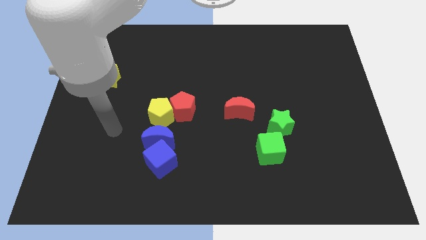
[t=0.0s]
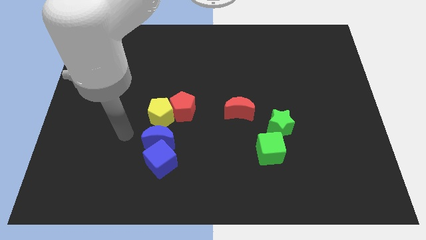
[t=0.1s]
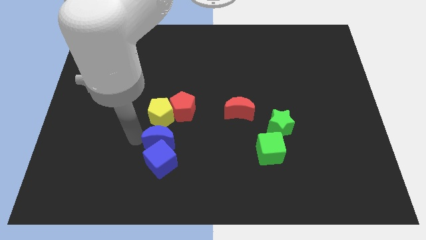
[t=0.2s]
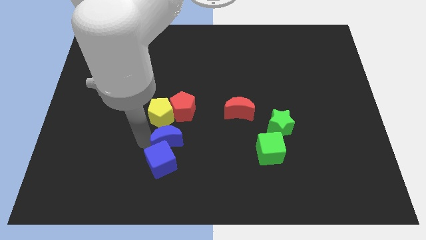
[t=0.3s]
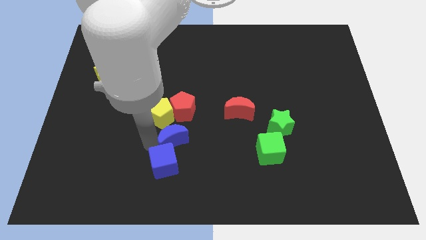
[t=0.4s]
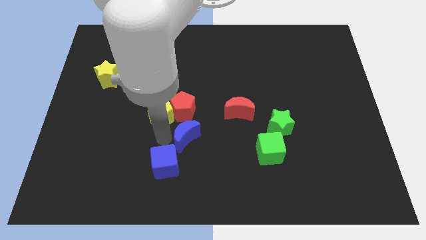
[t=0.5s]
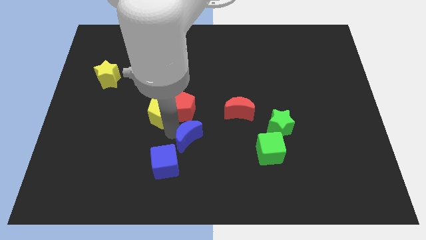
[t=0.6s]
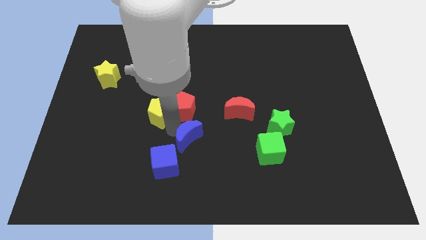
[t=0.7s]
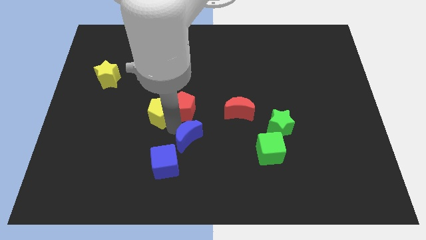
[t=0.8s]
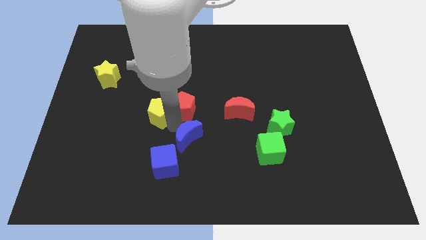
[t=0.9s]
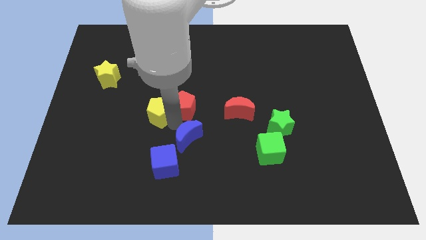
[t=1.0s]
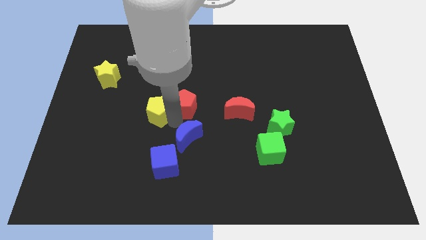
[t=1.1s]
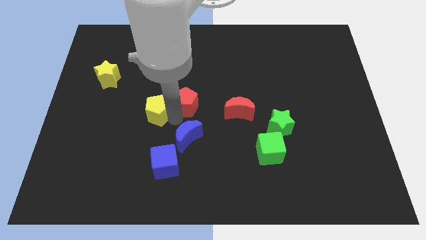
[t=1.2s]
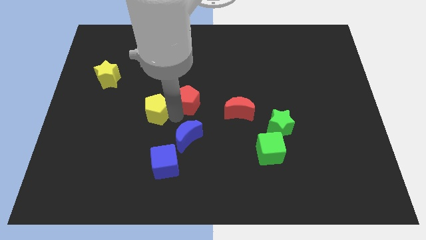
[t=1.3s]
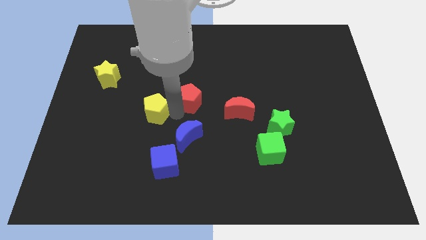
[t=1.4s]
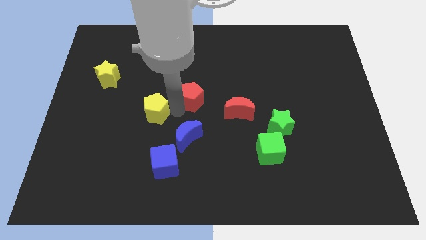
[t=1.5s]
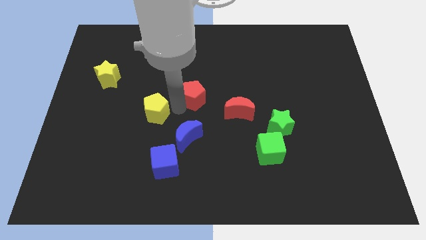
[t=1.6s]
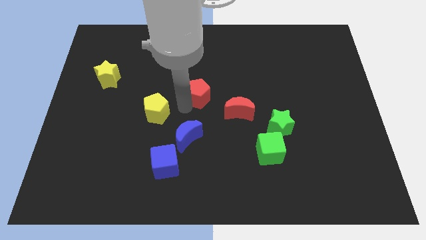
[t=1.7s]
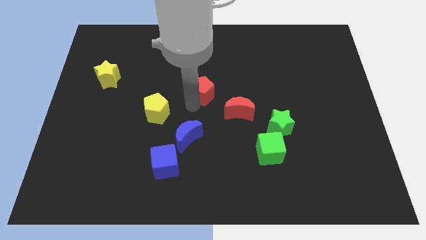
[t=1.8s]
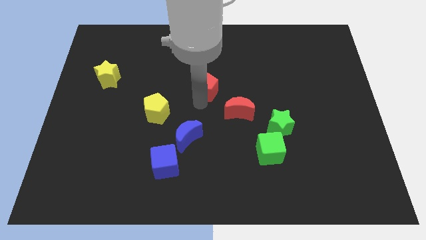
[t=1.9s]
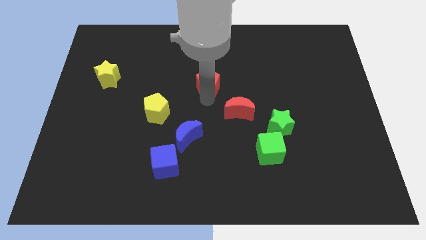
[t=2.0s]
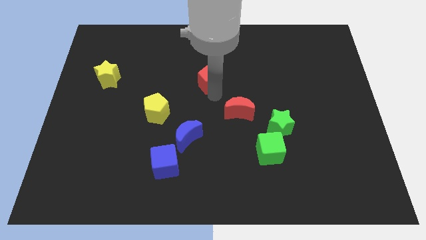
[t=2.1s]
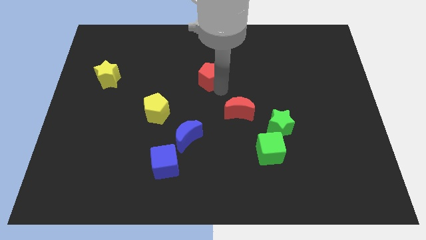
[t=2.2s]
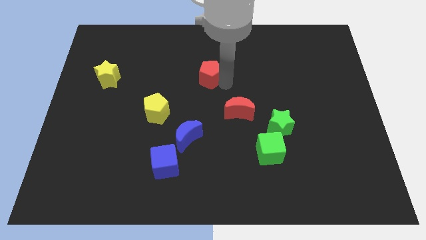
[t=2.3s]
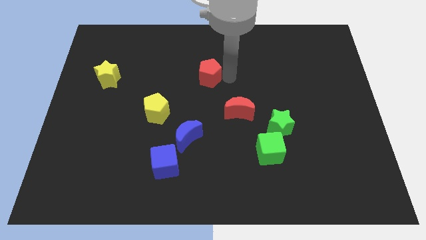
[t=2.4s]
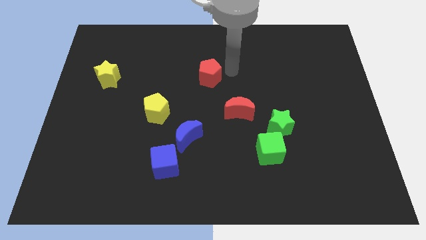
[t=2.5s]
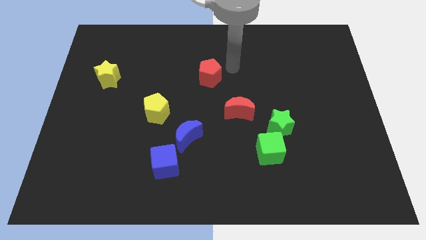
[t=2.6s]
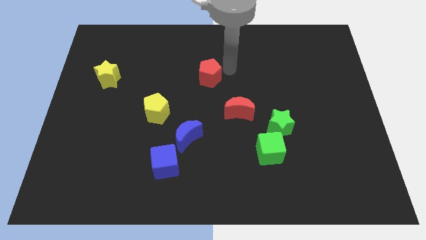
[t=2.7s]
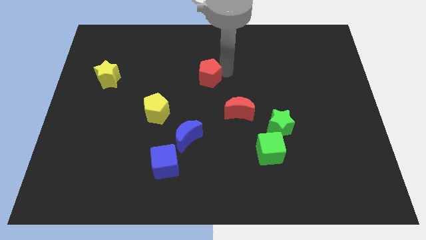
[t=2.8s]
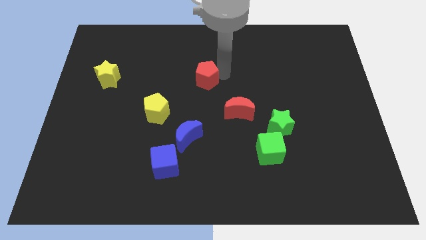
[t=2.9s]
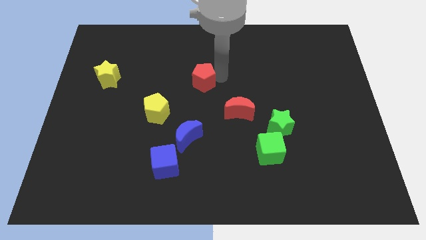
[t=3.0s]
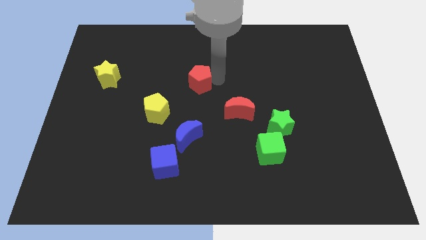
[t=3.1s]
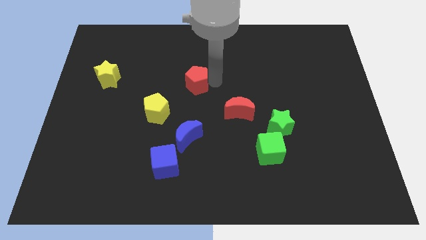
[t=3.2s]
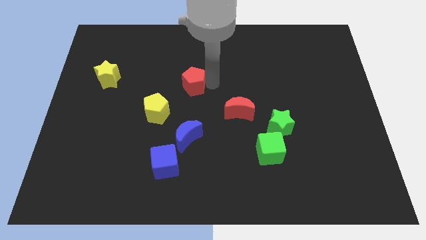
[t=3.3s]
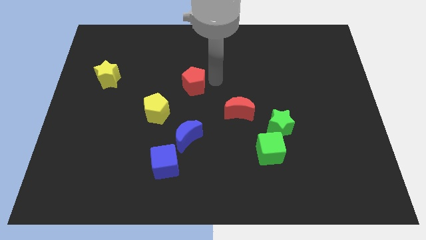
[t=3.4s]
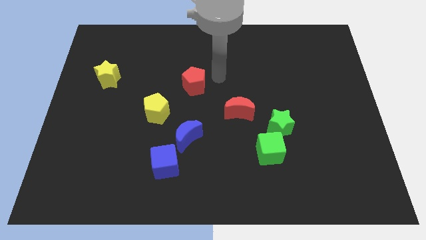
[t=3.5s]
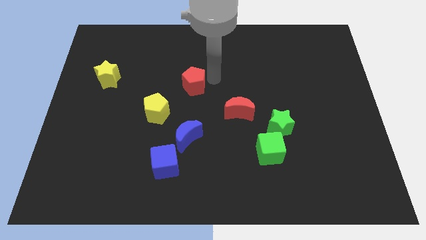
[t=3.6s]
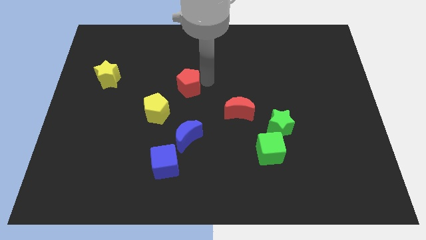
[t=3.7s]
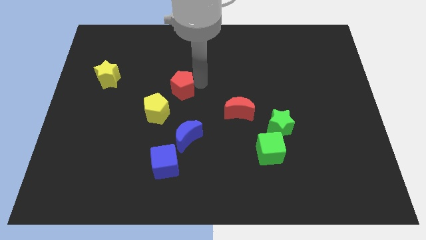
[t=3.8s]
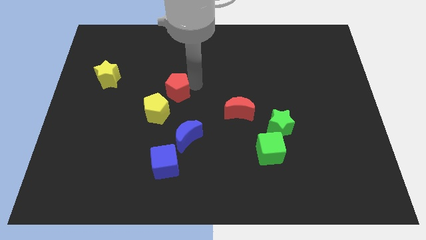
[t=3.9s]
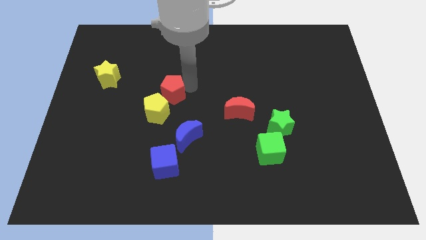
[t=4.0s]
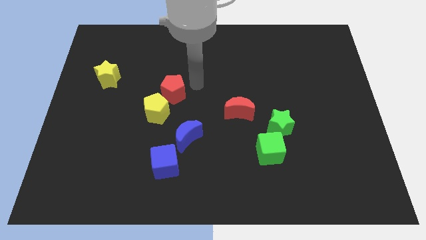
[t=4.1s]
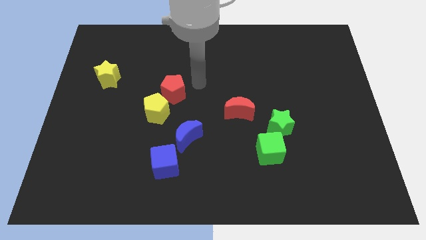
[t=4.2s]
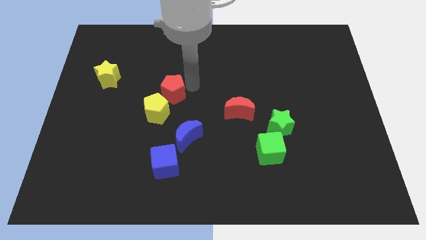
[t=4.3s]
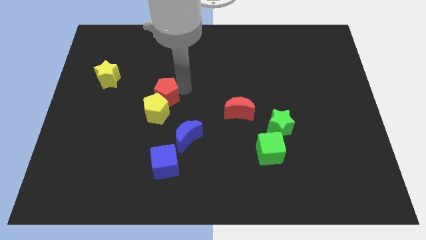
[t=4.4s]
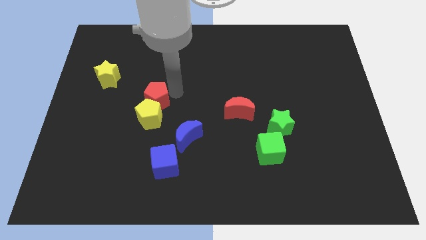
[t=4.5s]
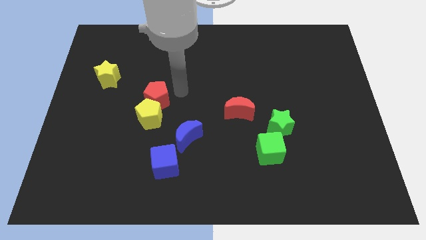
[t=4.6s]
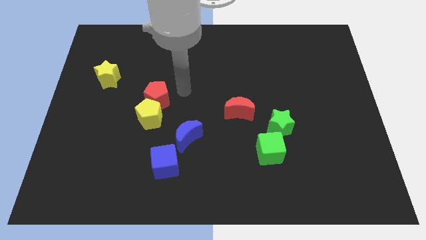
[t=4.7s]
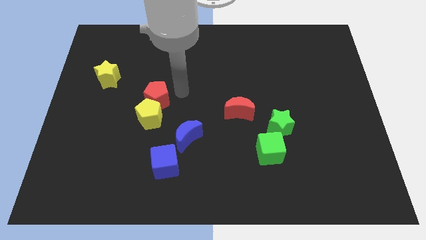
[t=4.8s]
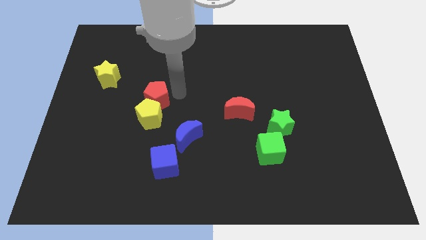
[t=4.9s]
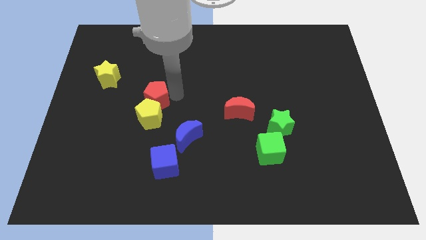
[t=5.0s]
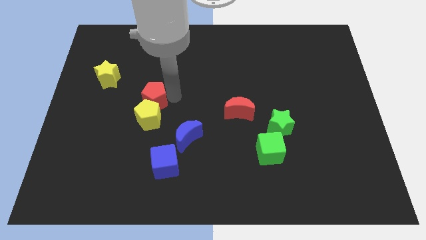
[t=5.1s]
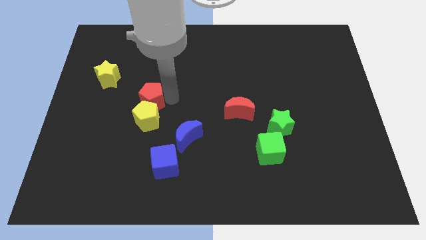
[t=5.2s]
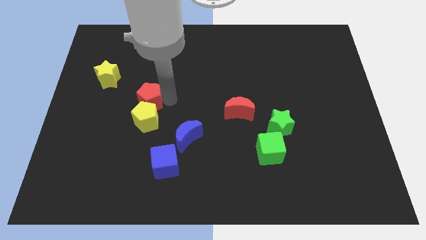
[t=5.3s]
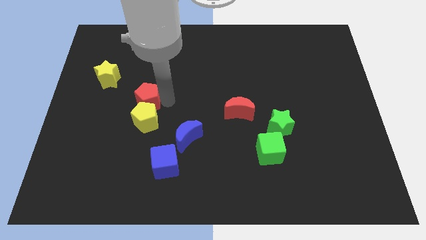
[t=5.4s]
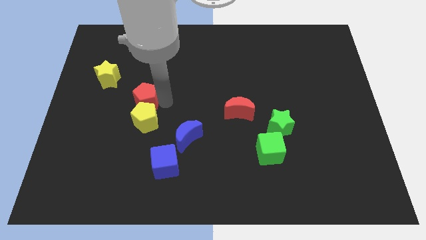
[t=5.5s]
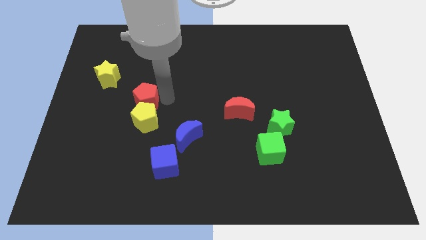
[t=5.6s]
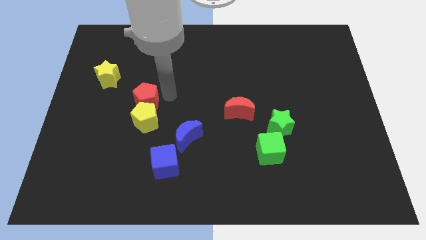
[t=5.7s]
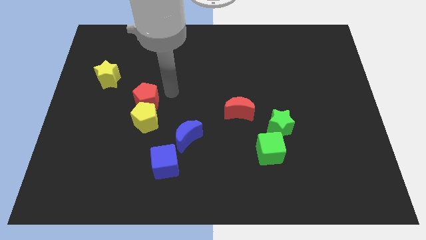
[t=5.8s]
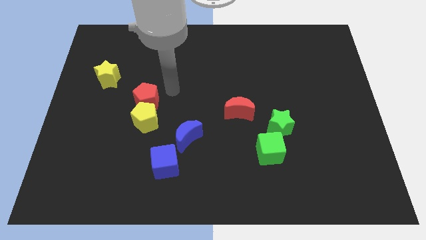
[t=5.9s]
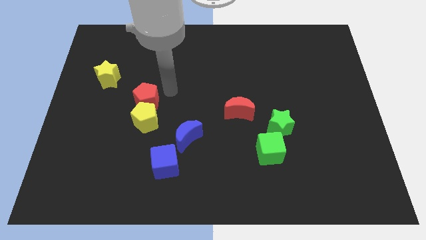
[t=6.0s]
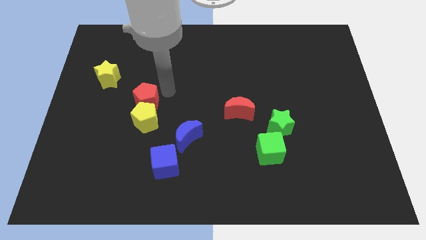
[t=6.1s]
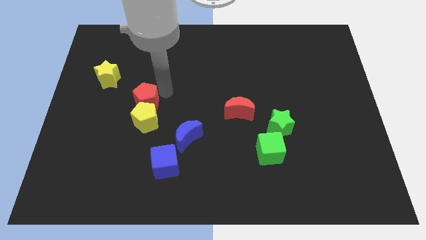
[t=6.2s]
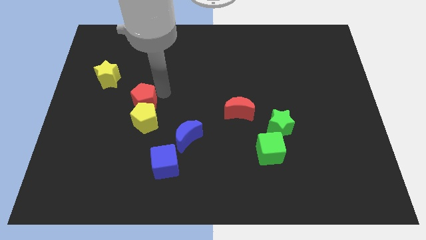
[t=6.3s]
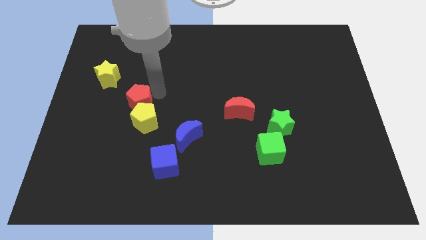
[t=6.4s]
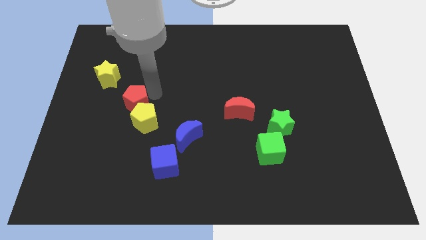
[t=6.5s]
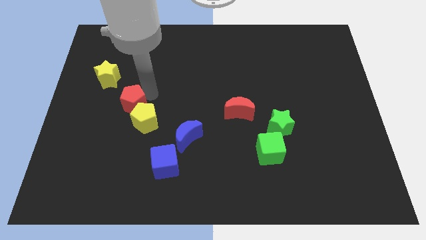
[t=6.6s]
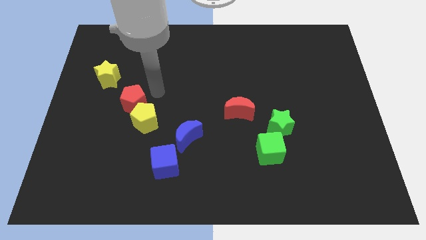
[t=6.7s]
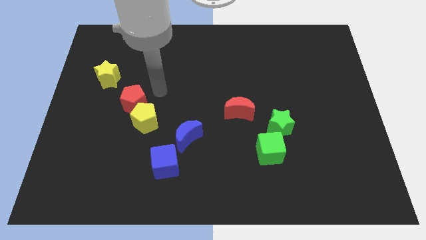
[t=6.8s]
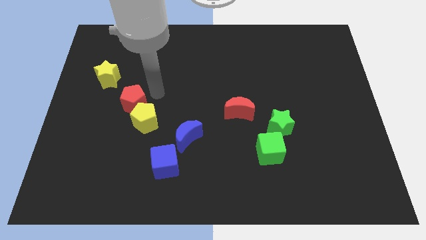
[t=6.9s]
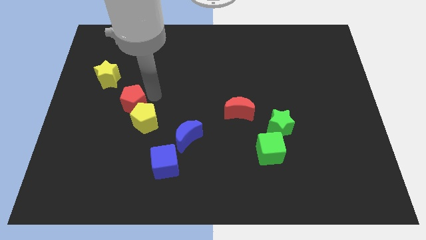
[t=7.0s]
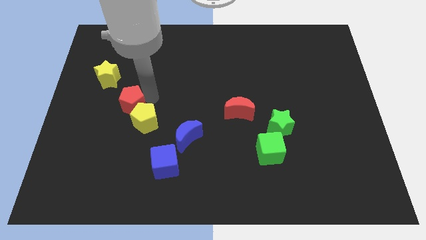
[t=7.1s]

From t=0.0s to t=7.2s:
put the red pentagon to the left of the yellow pentagon
